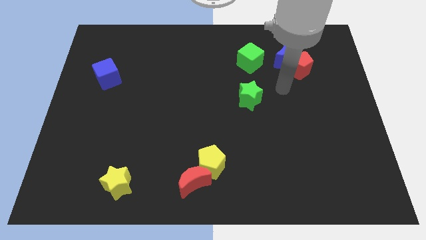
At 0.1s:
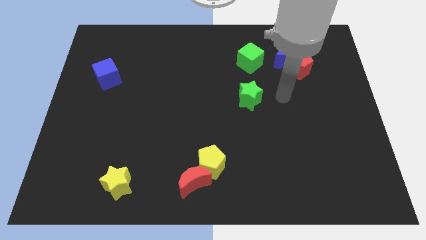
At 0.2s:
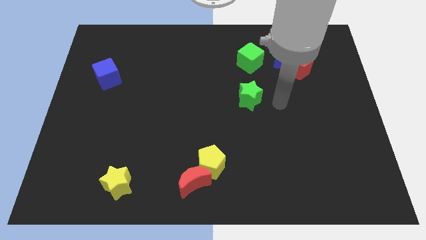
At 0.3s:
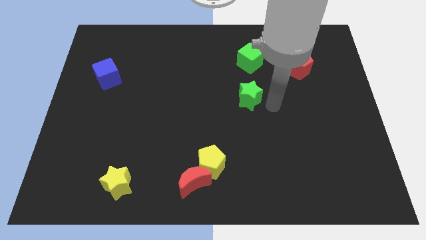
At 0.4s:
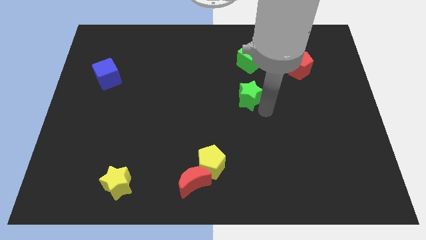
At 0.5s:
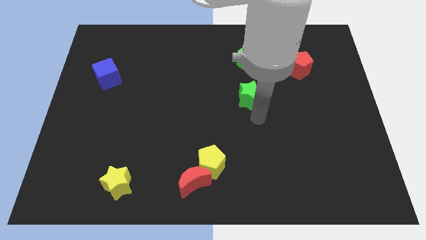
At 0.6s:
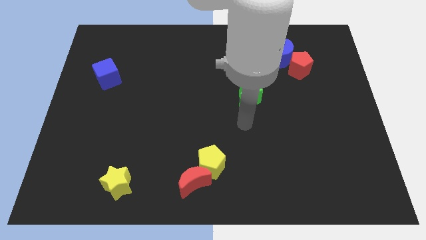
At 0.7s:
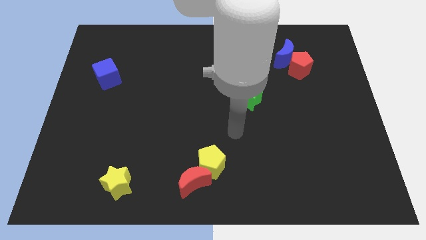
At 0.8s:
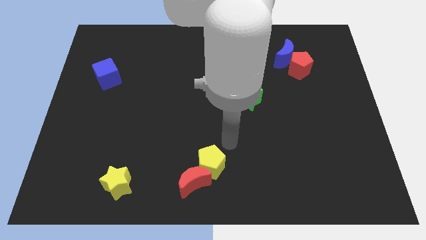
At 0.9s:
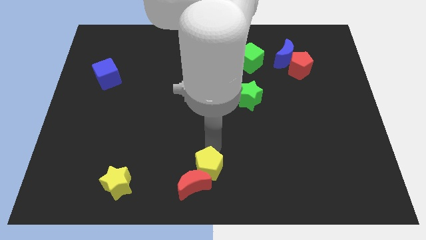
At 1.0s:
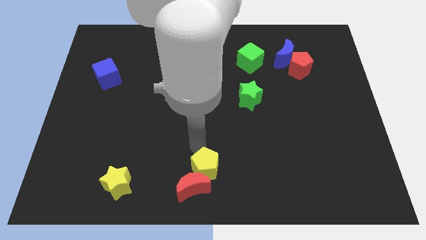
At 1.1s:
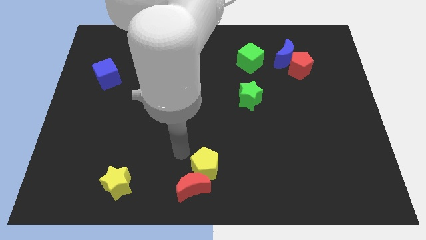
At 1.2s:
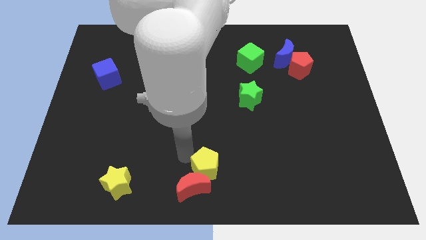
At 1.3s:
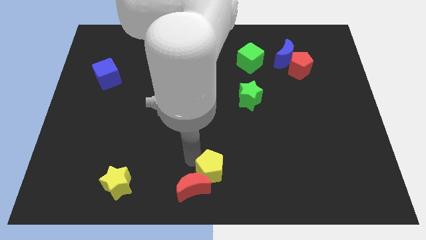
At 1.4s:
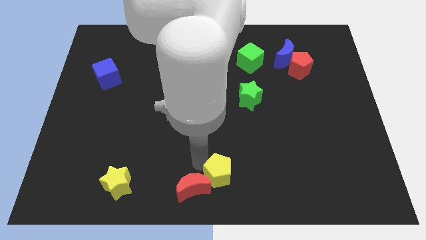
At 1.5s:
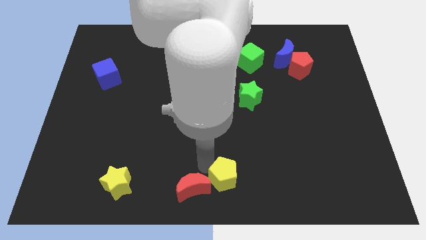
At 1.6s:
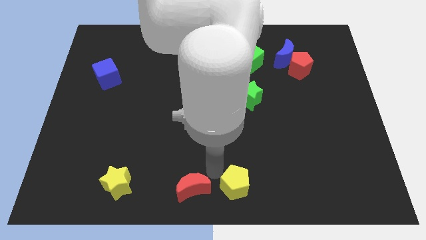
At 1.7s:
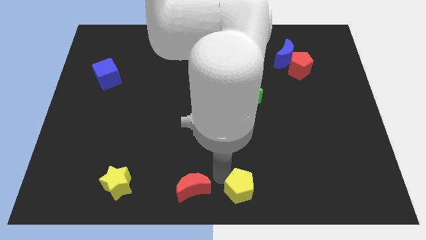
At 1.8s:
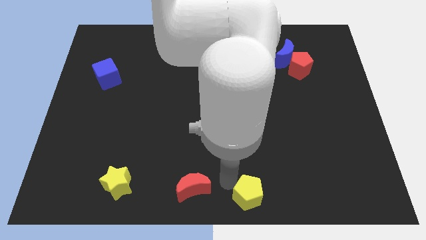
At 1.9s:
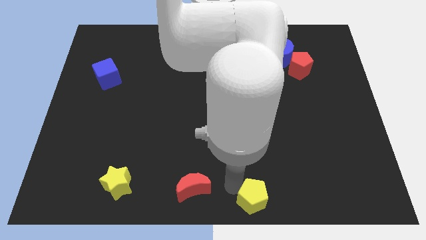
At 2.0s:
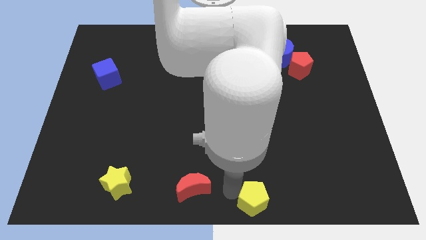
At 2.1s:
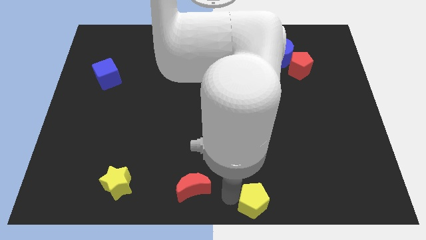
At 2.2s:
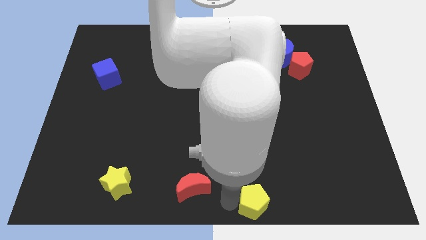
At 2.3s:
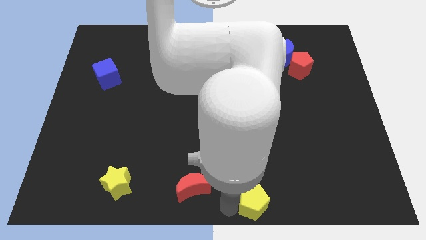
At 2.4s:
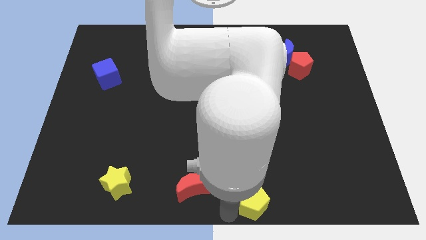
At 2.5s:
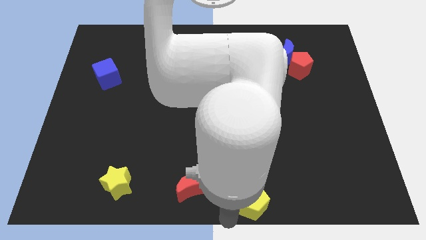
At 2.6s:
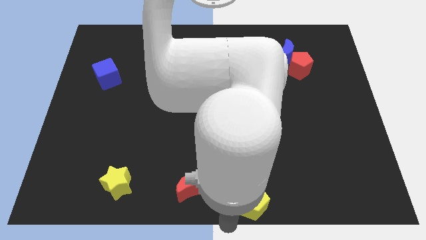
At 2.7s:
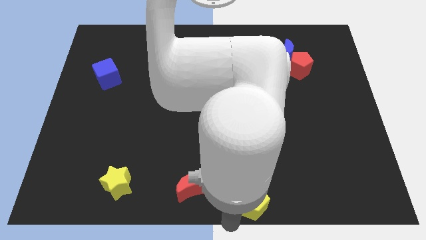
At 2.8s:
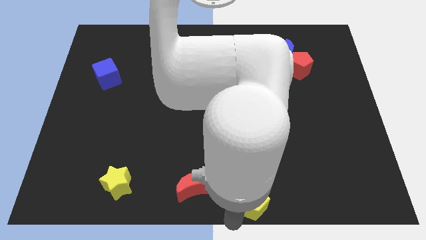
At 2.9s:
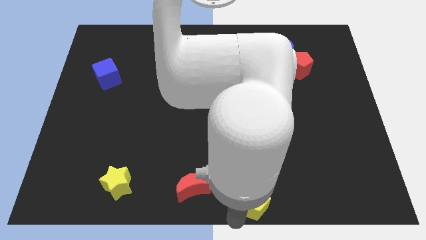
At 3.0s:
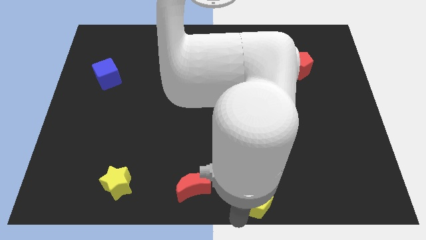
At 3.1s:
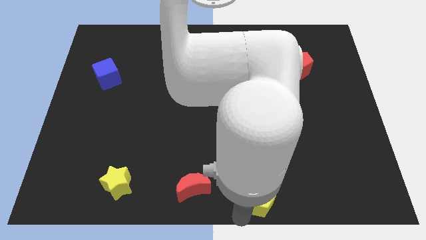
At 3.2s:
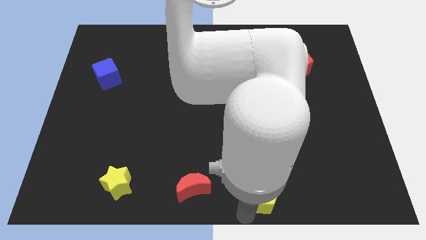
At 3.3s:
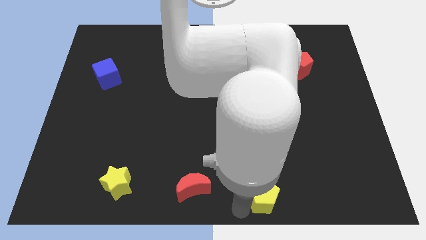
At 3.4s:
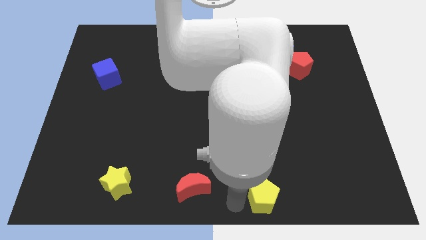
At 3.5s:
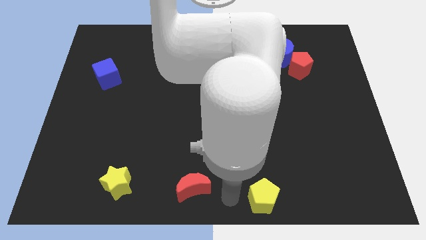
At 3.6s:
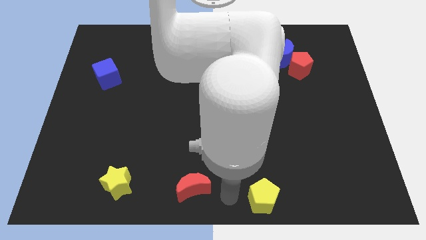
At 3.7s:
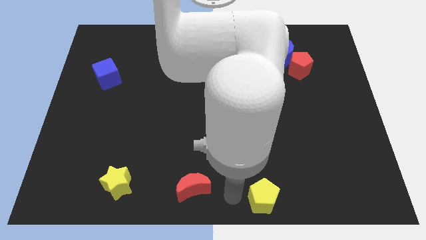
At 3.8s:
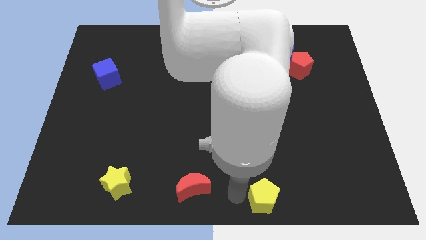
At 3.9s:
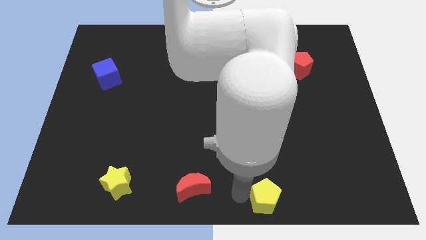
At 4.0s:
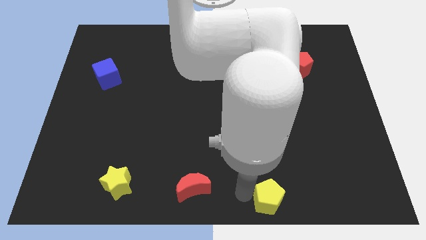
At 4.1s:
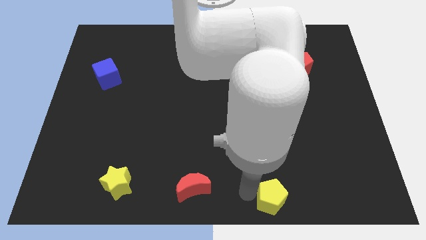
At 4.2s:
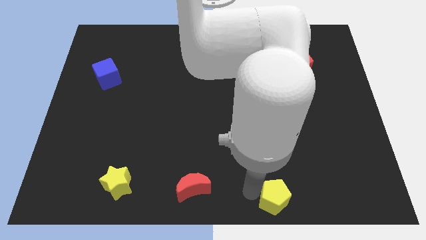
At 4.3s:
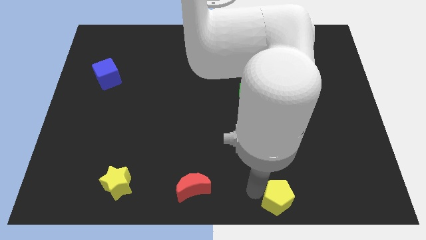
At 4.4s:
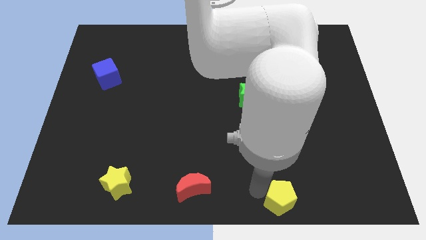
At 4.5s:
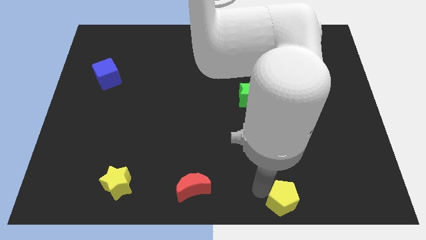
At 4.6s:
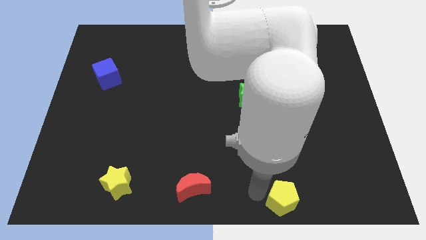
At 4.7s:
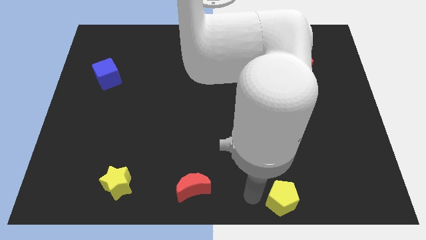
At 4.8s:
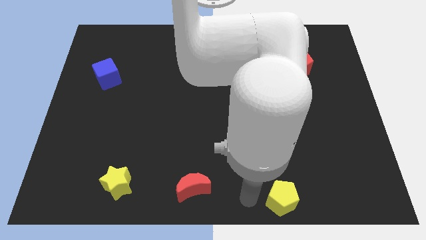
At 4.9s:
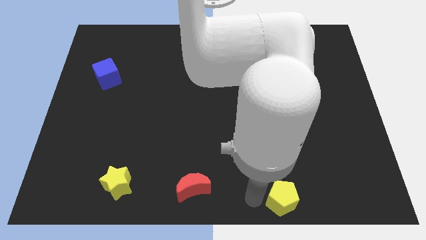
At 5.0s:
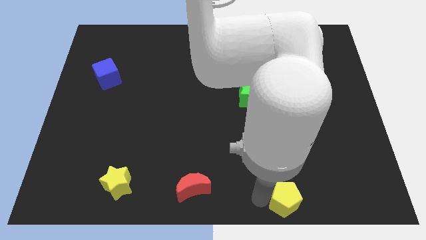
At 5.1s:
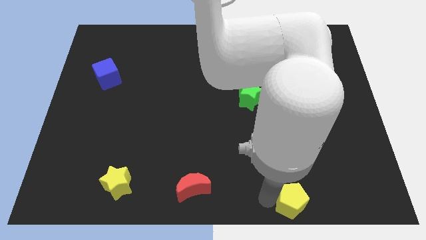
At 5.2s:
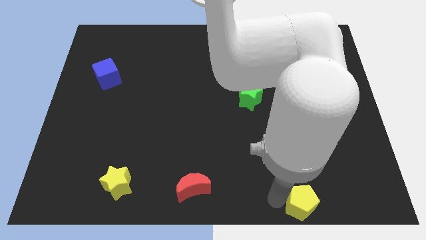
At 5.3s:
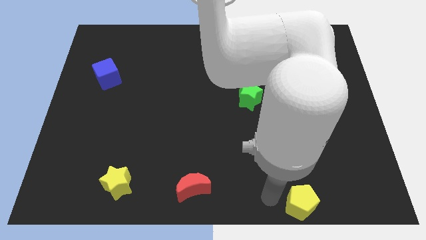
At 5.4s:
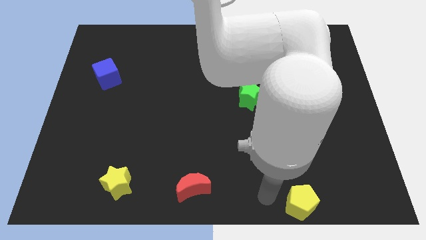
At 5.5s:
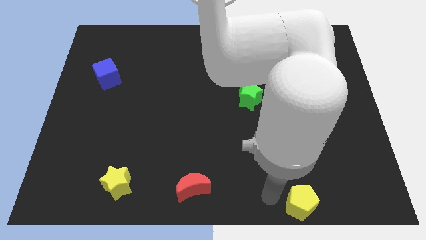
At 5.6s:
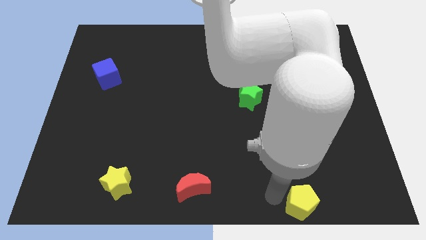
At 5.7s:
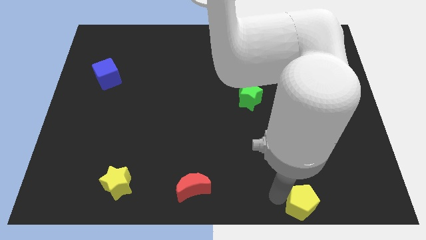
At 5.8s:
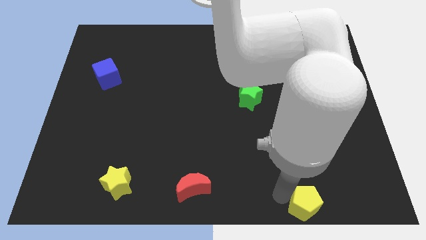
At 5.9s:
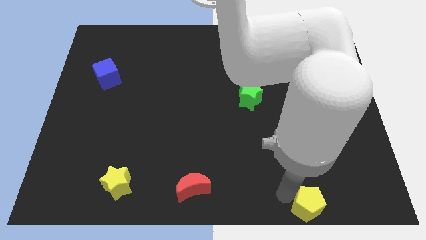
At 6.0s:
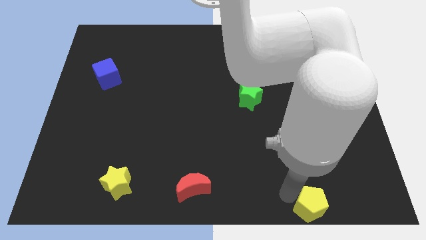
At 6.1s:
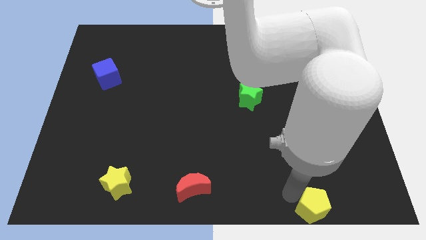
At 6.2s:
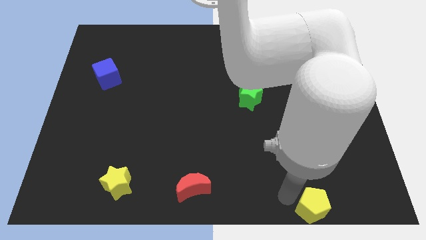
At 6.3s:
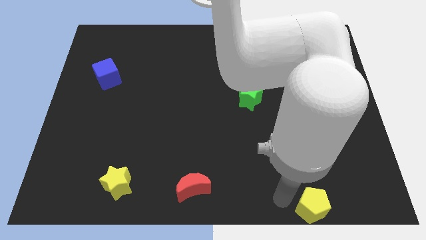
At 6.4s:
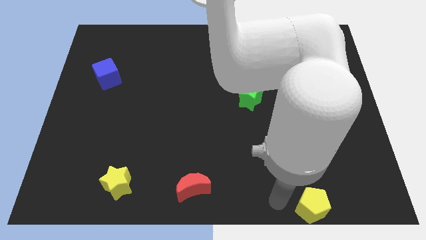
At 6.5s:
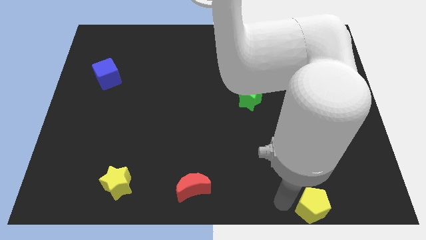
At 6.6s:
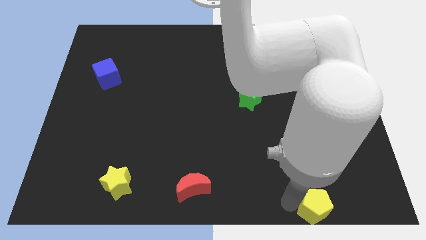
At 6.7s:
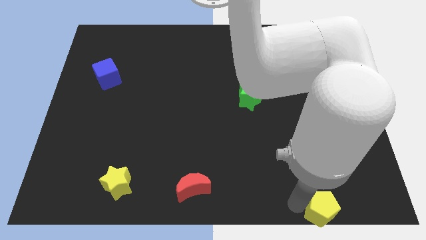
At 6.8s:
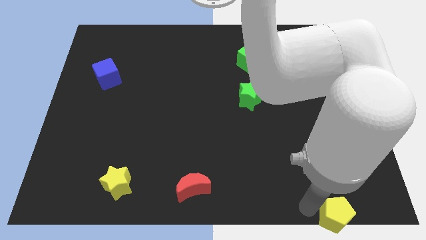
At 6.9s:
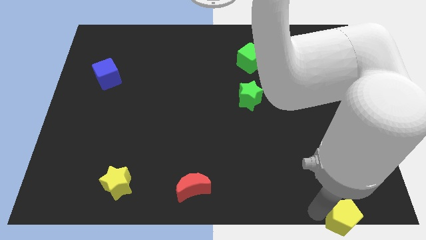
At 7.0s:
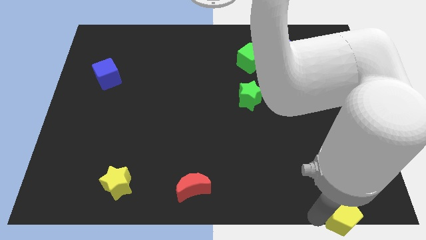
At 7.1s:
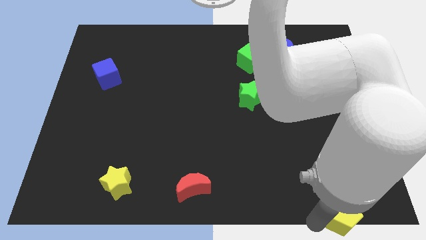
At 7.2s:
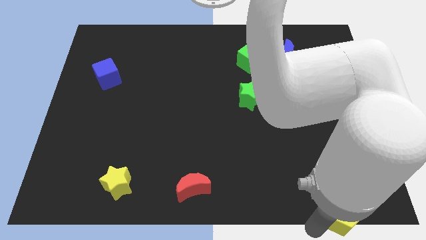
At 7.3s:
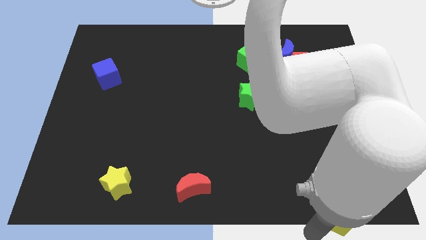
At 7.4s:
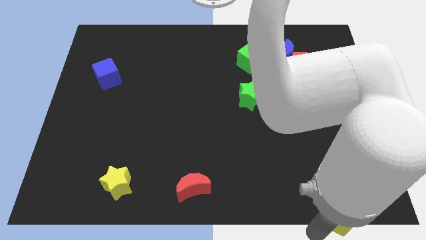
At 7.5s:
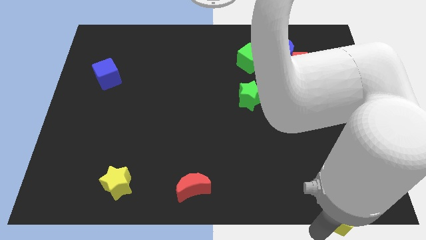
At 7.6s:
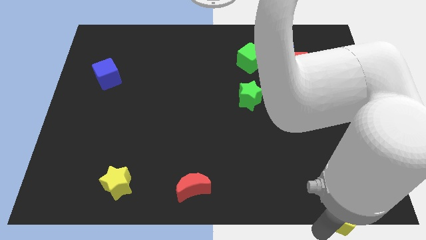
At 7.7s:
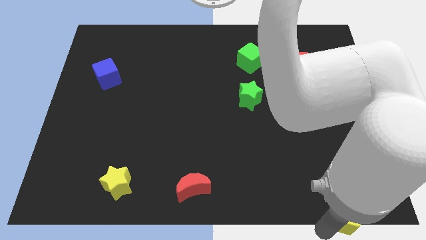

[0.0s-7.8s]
push the yellow pentagon to the lower right corner

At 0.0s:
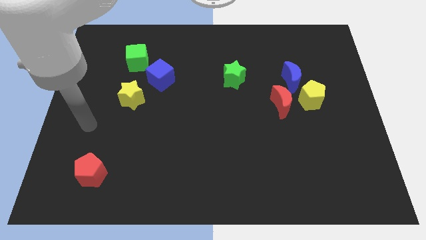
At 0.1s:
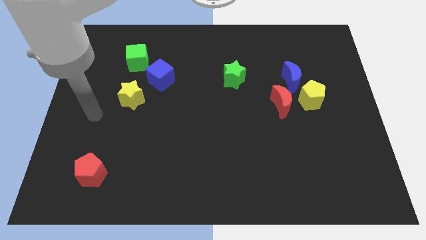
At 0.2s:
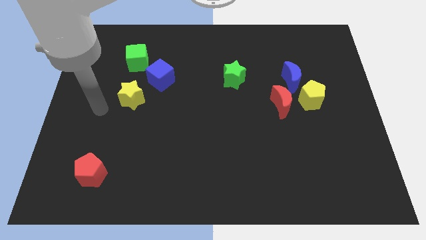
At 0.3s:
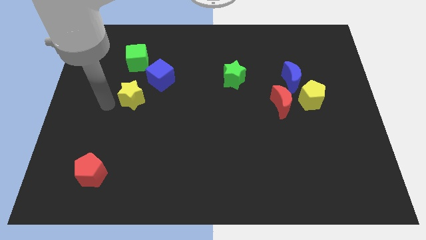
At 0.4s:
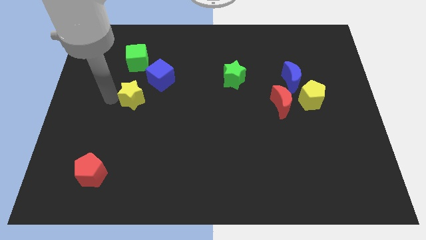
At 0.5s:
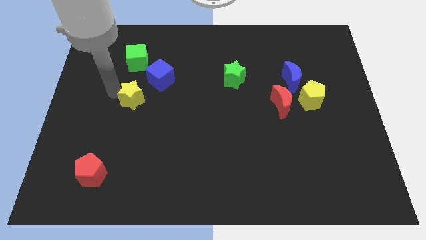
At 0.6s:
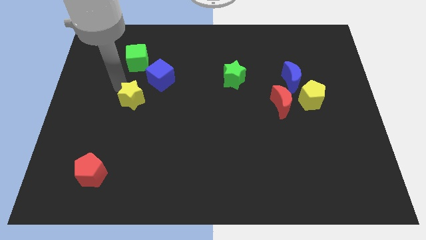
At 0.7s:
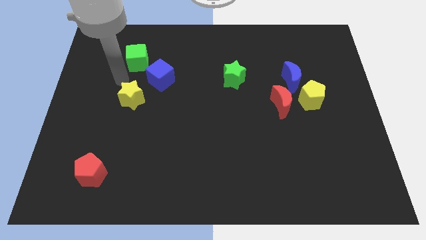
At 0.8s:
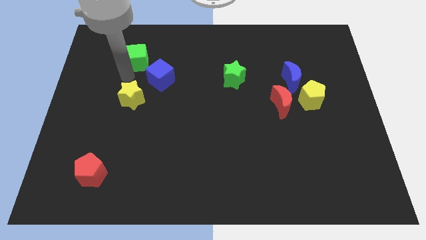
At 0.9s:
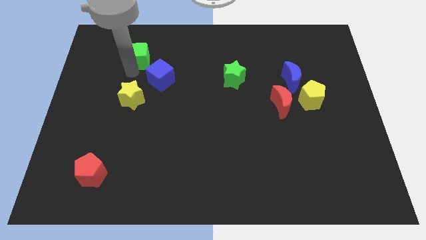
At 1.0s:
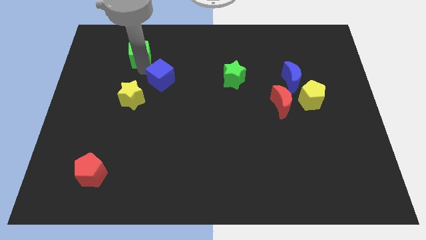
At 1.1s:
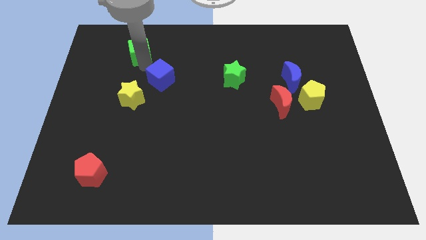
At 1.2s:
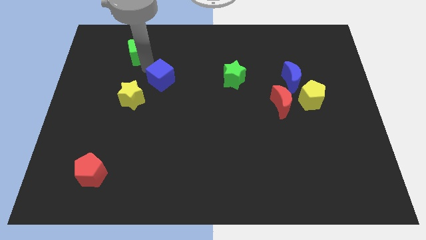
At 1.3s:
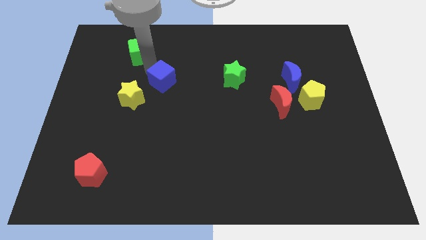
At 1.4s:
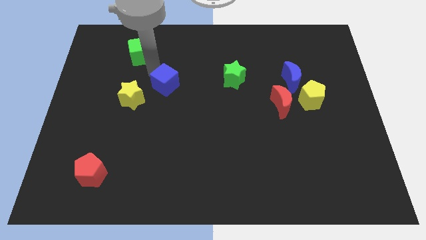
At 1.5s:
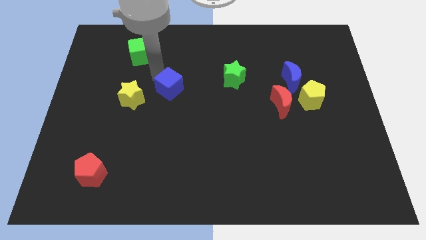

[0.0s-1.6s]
move the blue cube to the middle
